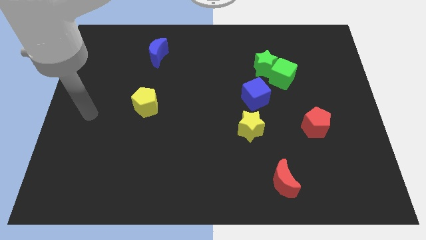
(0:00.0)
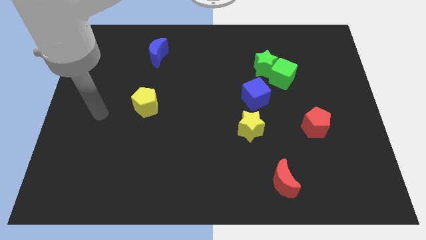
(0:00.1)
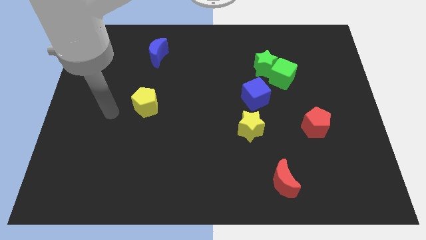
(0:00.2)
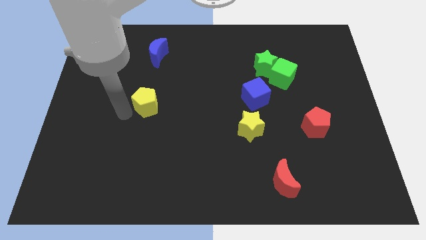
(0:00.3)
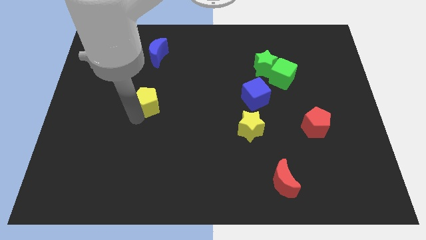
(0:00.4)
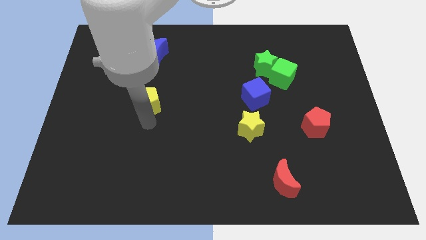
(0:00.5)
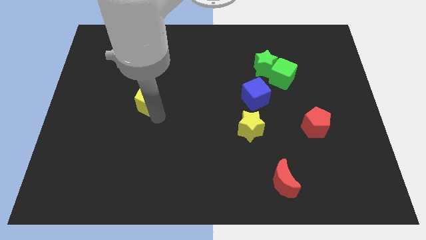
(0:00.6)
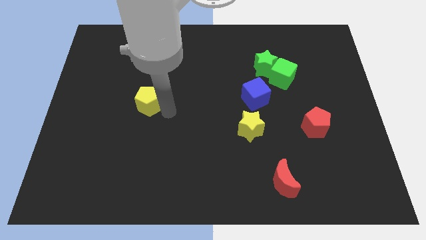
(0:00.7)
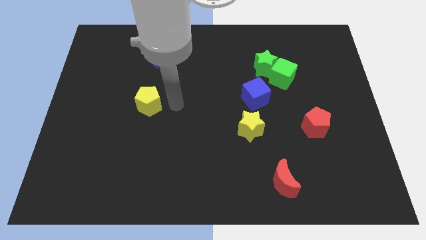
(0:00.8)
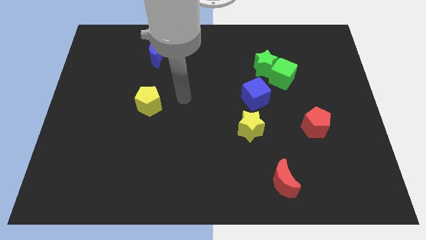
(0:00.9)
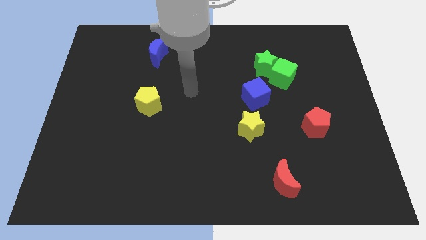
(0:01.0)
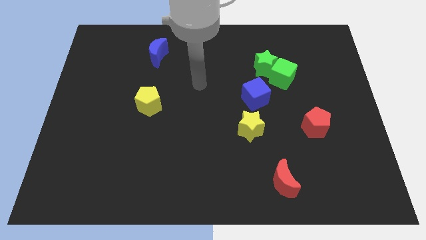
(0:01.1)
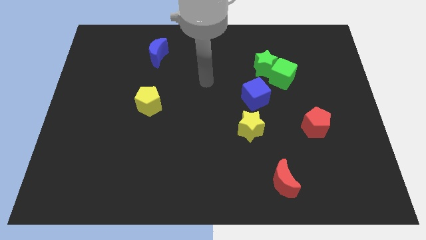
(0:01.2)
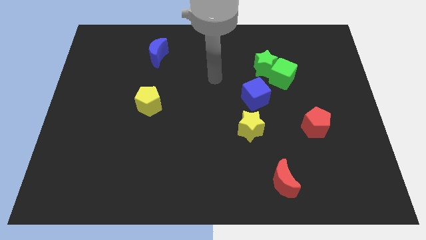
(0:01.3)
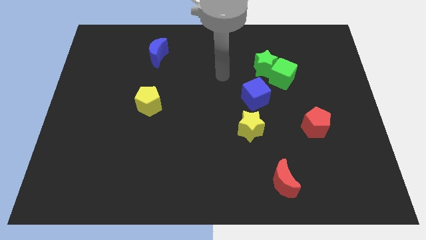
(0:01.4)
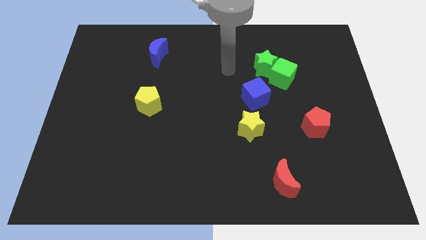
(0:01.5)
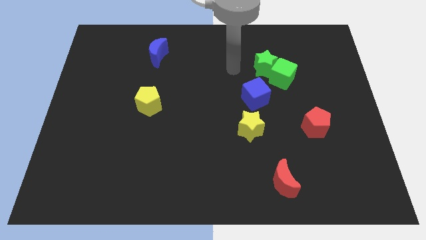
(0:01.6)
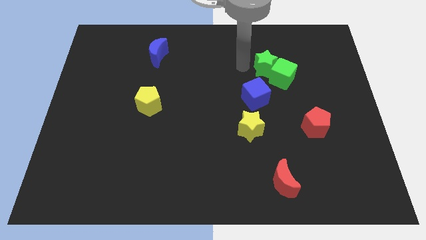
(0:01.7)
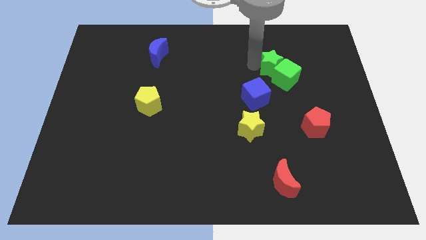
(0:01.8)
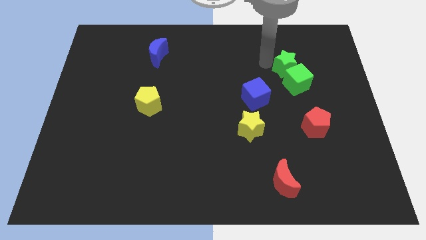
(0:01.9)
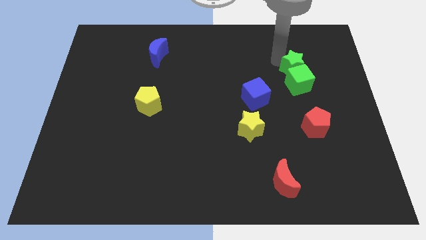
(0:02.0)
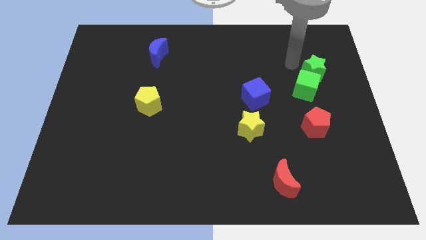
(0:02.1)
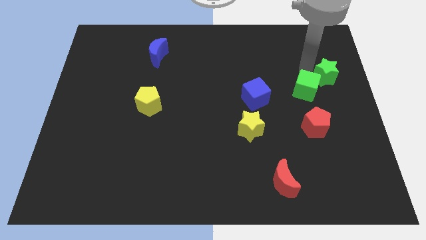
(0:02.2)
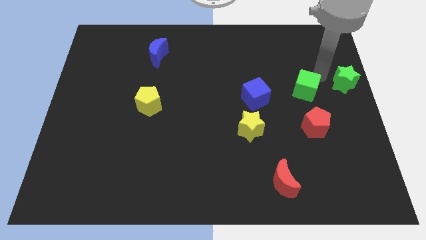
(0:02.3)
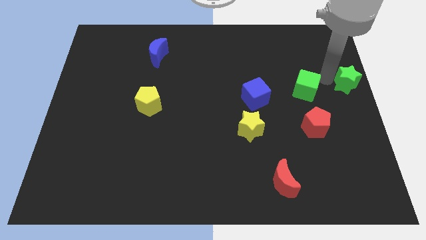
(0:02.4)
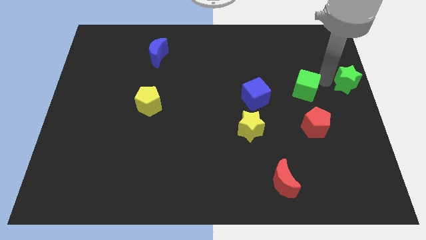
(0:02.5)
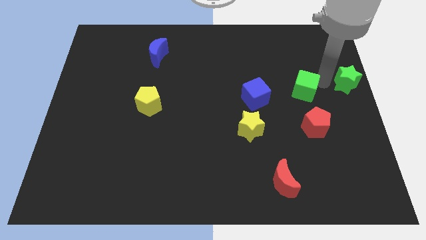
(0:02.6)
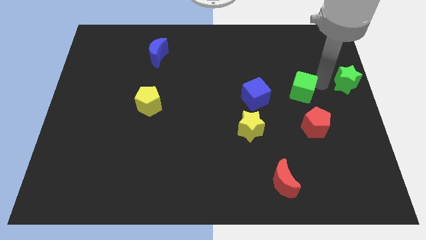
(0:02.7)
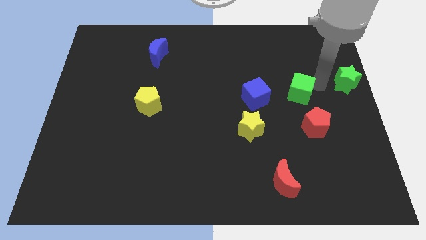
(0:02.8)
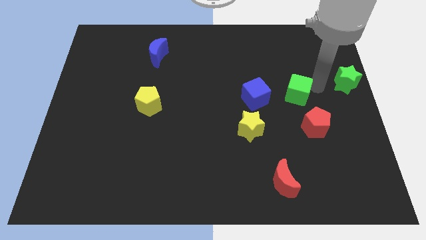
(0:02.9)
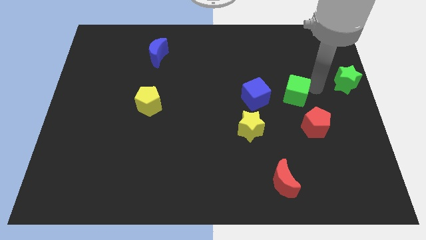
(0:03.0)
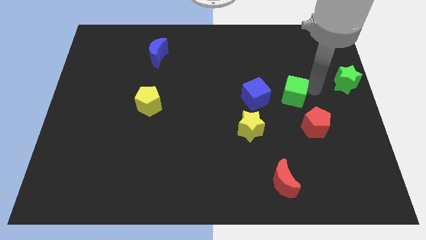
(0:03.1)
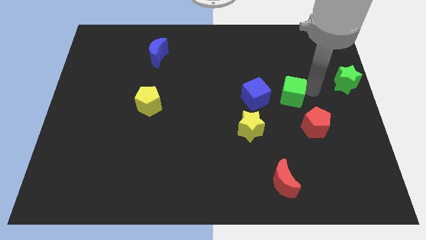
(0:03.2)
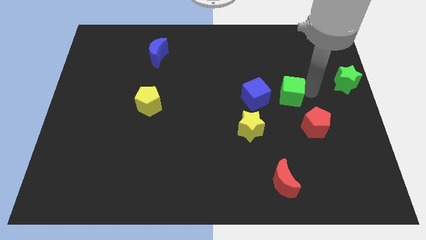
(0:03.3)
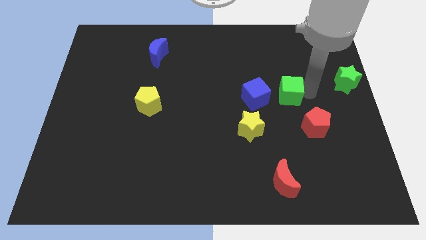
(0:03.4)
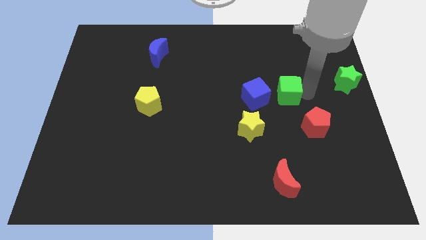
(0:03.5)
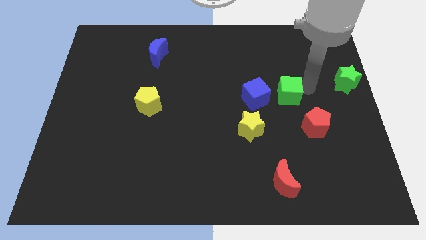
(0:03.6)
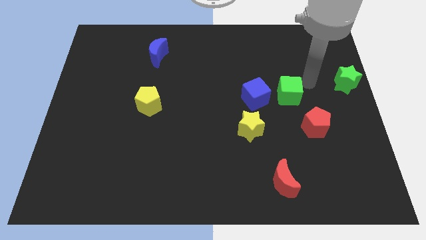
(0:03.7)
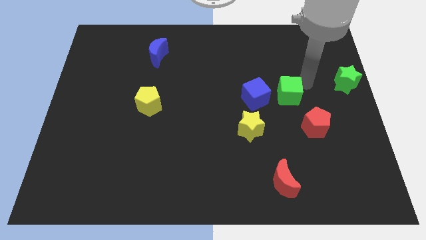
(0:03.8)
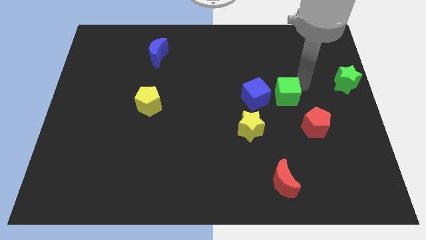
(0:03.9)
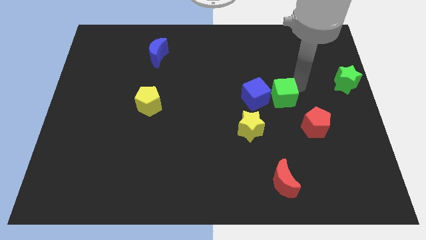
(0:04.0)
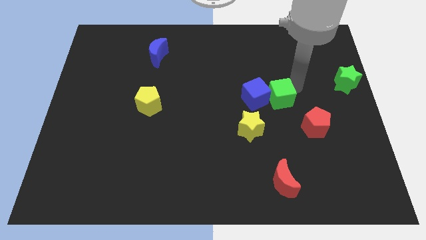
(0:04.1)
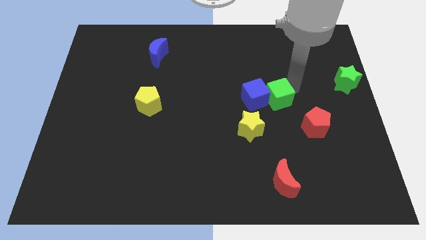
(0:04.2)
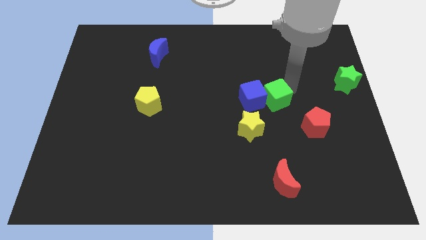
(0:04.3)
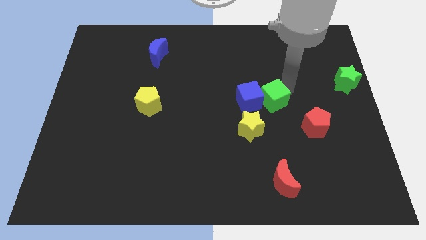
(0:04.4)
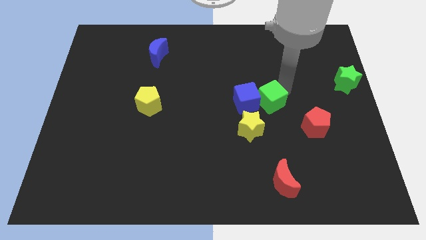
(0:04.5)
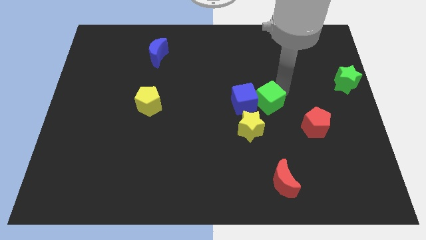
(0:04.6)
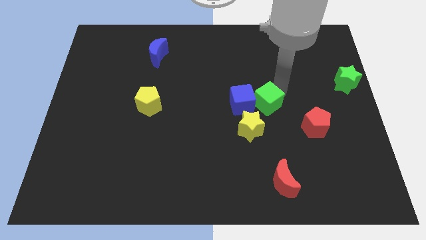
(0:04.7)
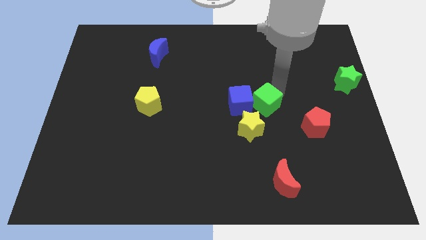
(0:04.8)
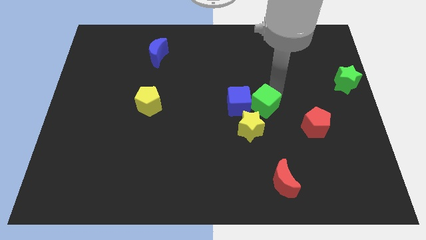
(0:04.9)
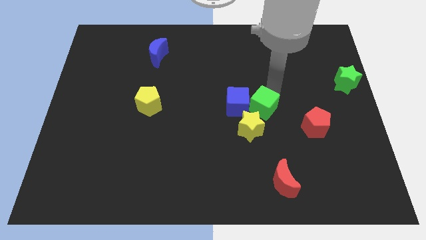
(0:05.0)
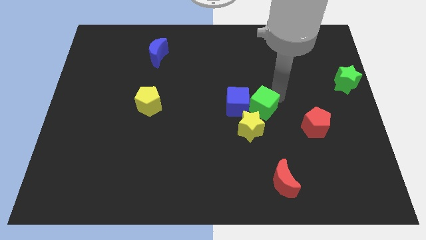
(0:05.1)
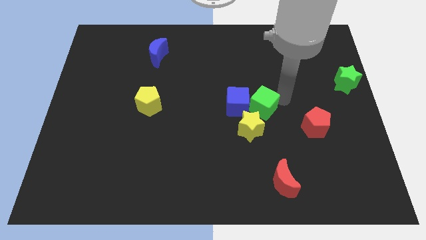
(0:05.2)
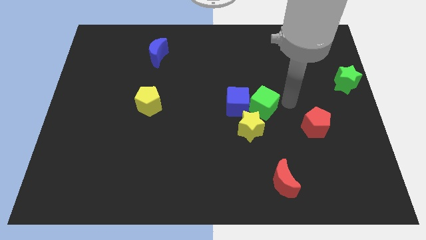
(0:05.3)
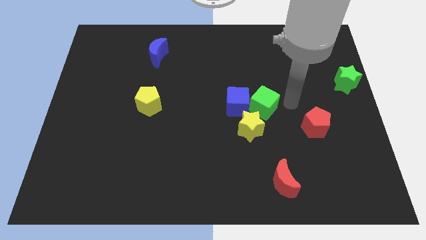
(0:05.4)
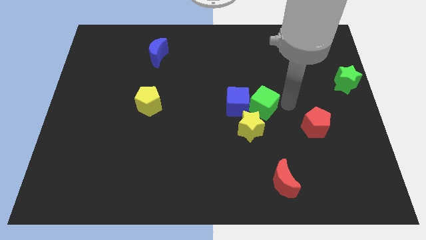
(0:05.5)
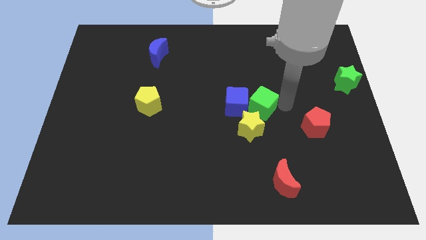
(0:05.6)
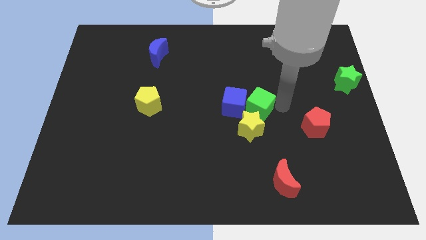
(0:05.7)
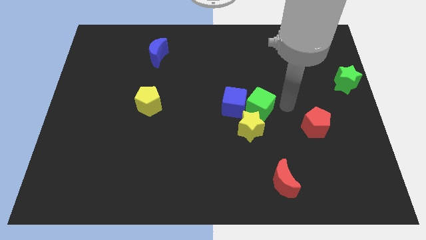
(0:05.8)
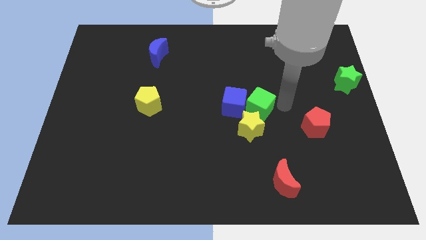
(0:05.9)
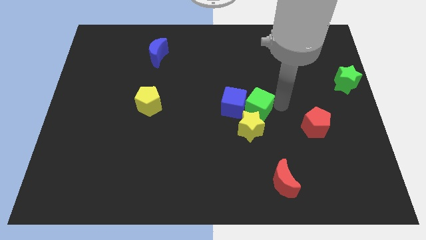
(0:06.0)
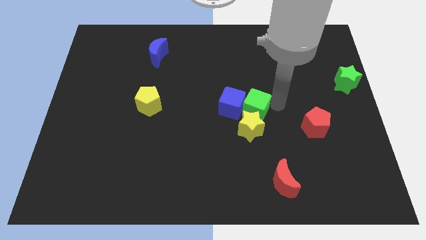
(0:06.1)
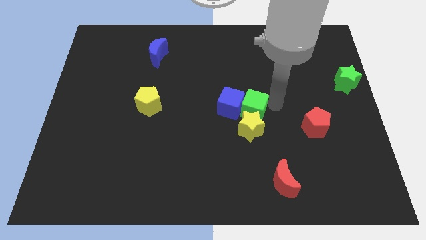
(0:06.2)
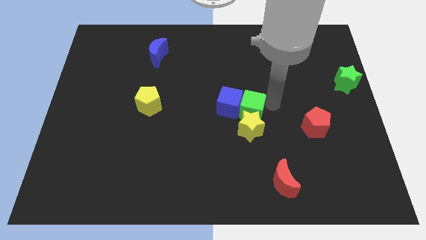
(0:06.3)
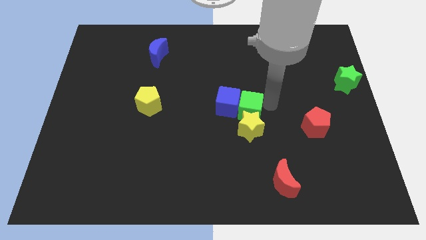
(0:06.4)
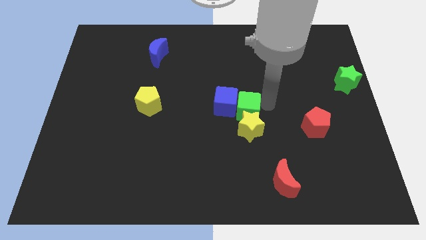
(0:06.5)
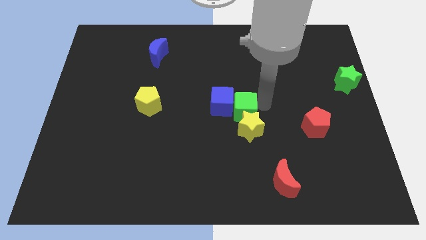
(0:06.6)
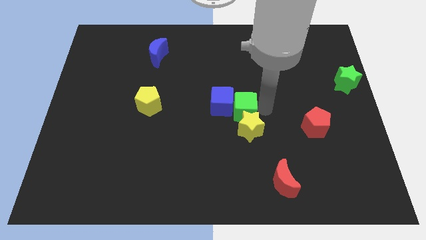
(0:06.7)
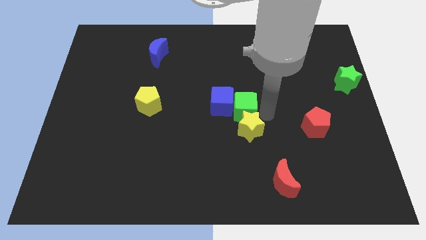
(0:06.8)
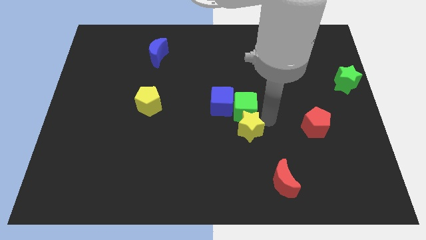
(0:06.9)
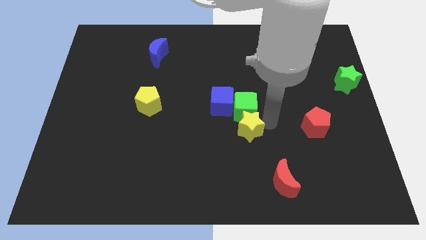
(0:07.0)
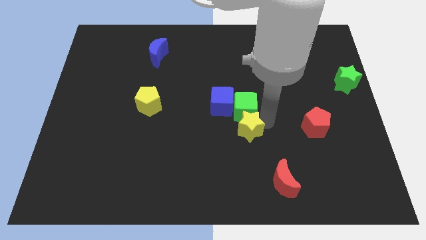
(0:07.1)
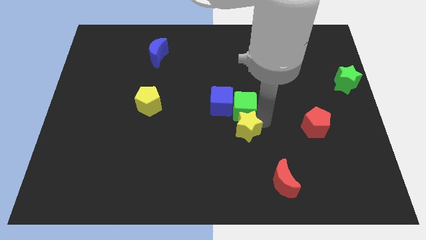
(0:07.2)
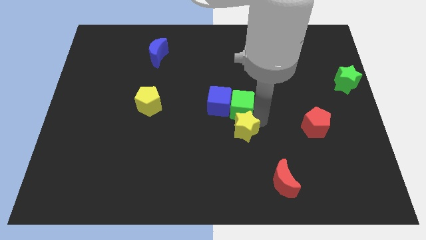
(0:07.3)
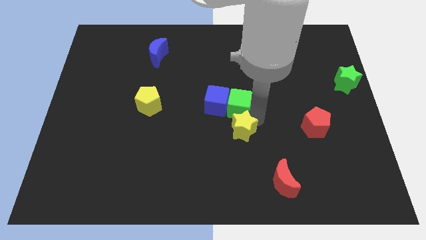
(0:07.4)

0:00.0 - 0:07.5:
slightly slide the green cube to the left

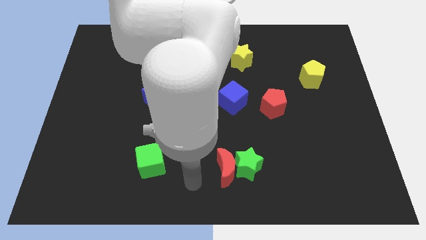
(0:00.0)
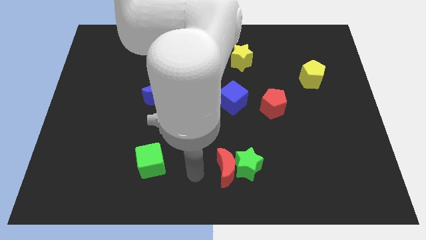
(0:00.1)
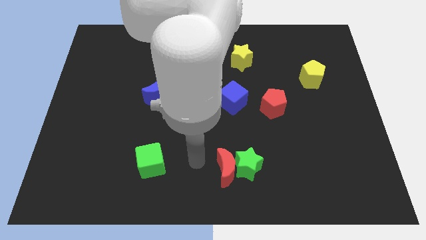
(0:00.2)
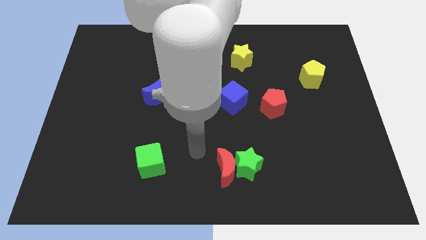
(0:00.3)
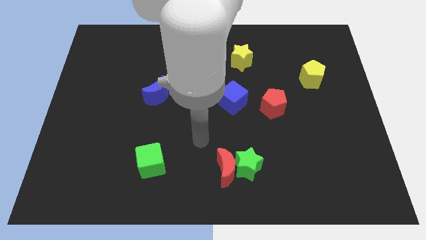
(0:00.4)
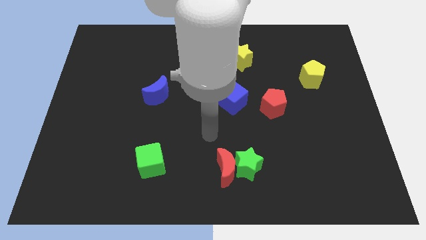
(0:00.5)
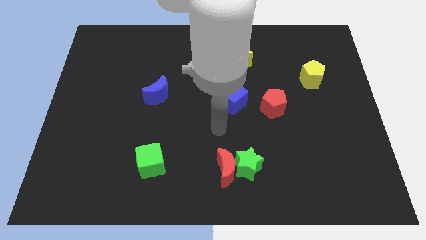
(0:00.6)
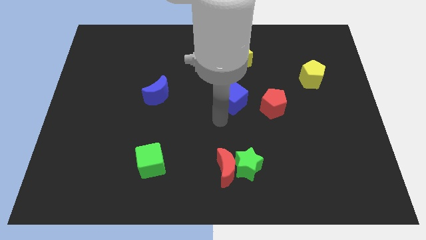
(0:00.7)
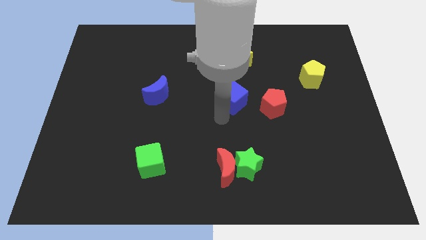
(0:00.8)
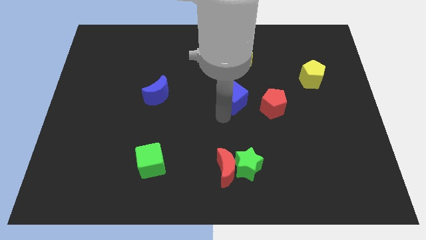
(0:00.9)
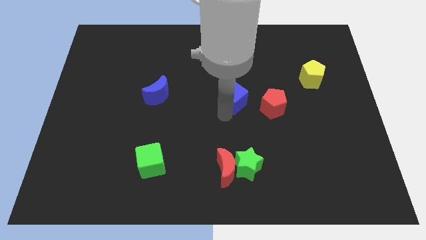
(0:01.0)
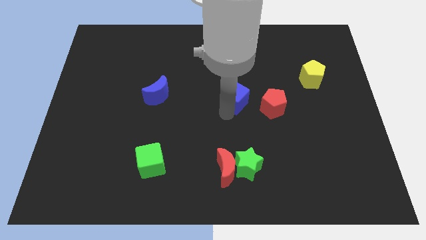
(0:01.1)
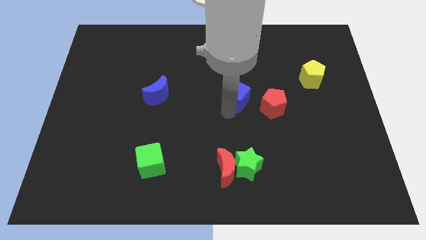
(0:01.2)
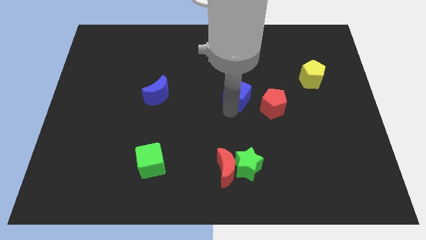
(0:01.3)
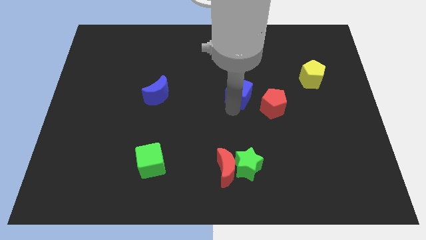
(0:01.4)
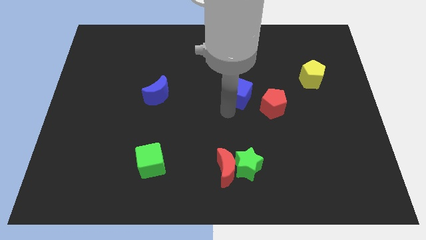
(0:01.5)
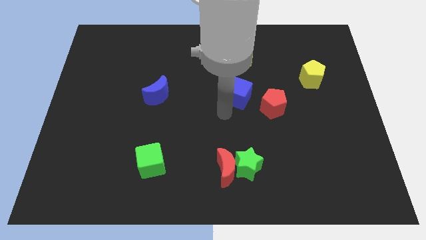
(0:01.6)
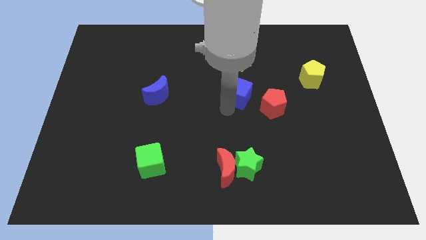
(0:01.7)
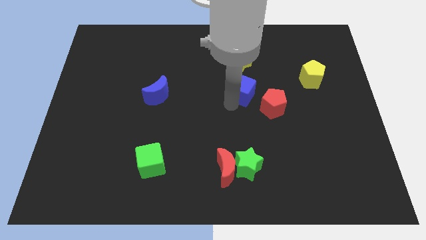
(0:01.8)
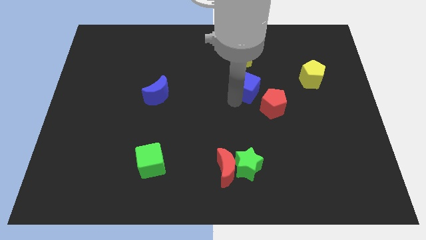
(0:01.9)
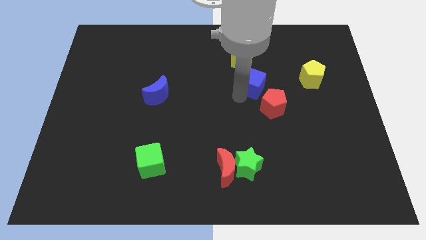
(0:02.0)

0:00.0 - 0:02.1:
slightly push the blue cube up and then to the right
